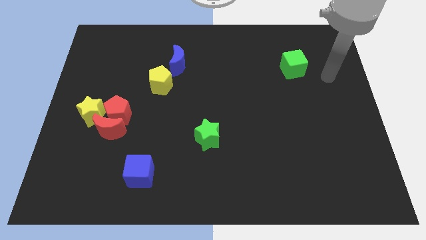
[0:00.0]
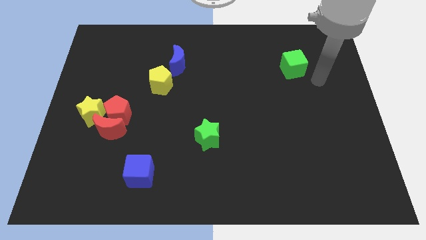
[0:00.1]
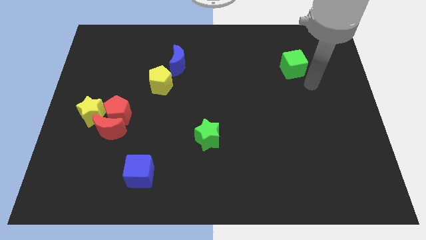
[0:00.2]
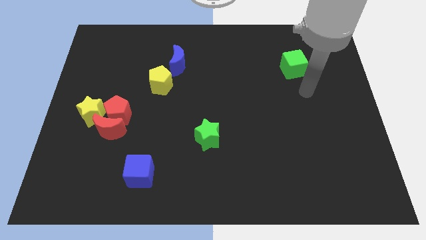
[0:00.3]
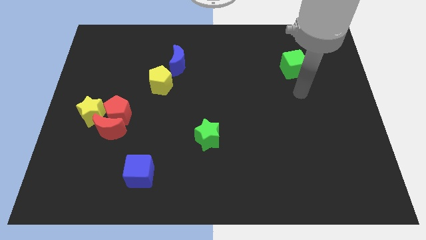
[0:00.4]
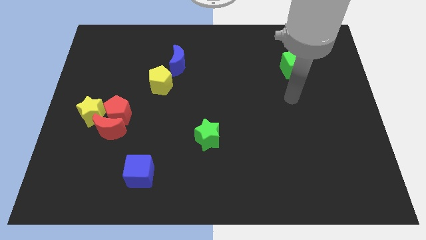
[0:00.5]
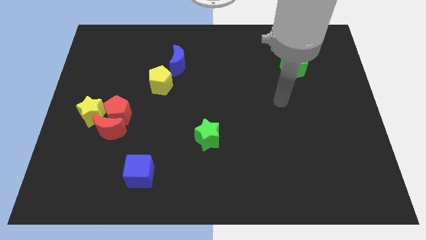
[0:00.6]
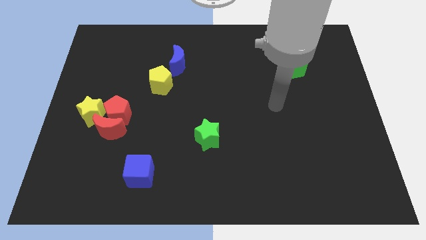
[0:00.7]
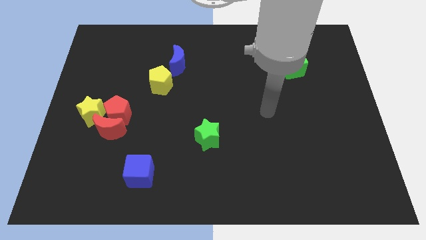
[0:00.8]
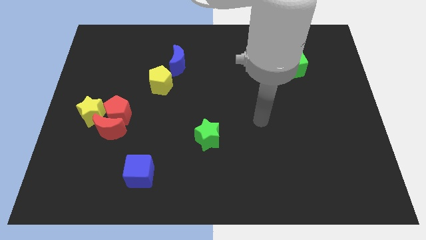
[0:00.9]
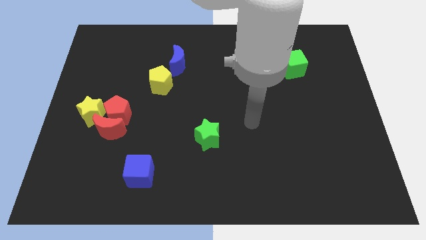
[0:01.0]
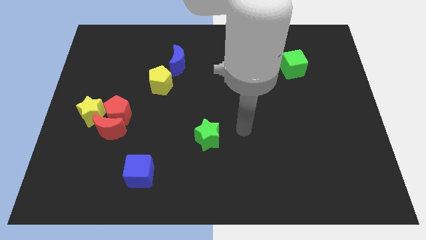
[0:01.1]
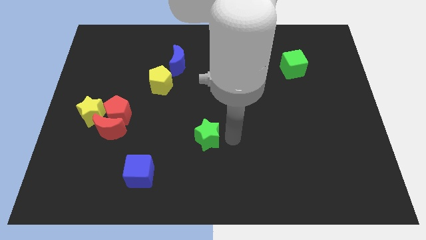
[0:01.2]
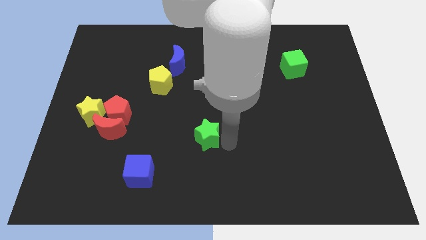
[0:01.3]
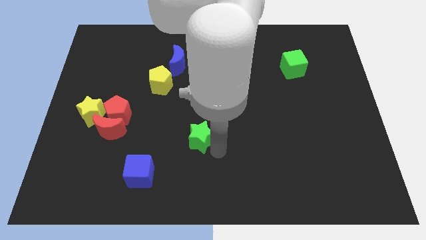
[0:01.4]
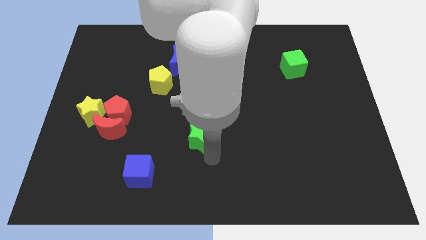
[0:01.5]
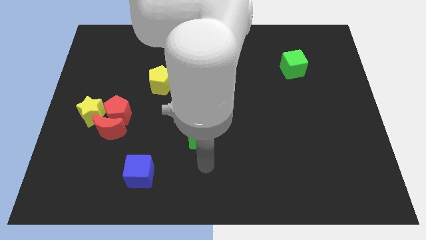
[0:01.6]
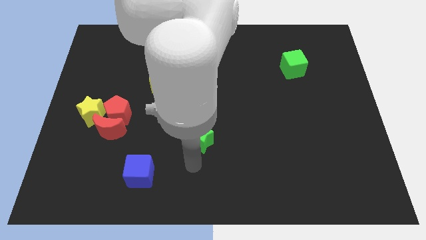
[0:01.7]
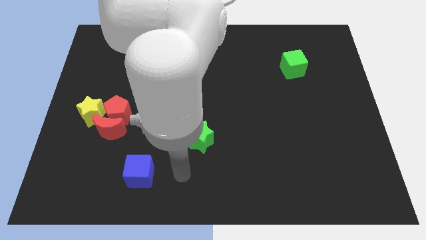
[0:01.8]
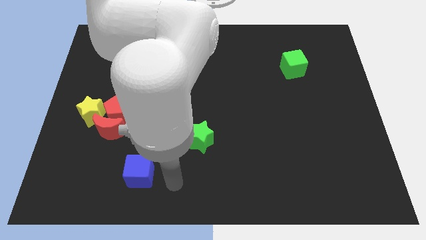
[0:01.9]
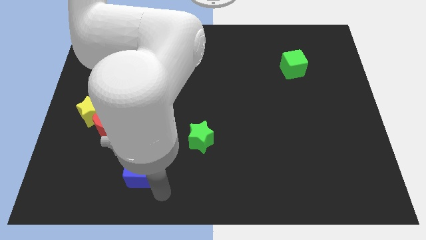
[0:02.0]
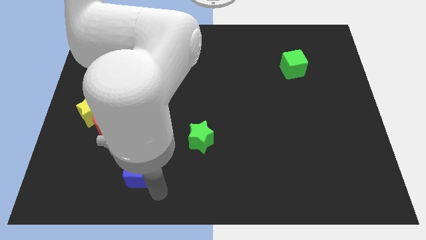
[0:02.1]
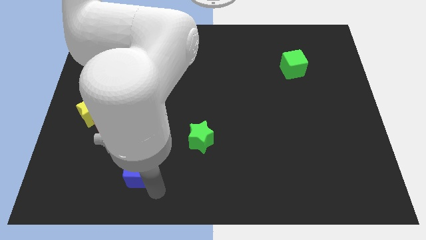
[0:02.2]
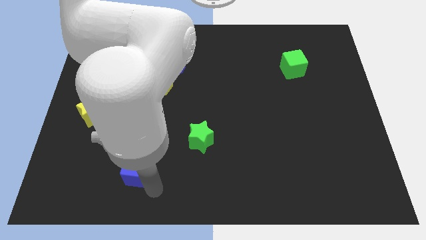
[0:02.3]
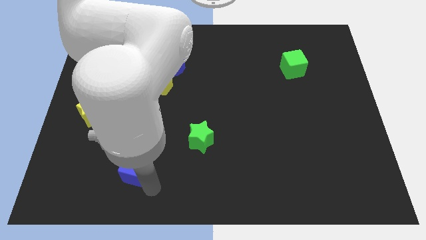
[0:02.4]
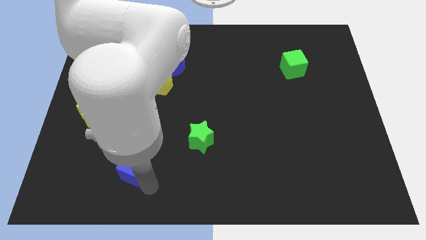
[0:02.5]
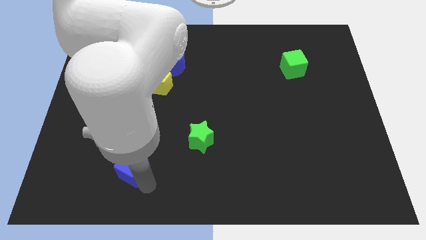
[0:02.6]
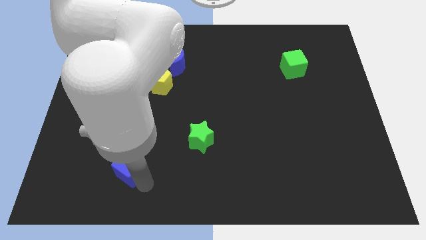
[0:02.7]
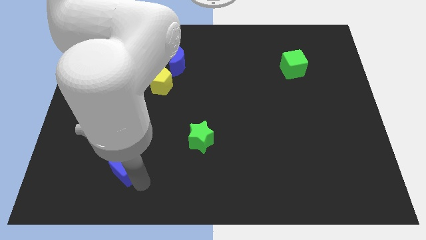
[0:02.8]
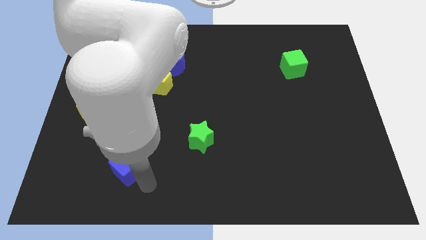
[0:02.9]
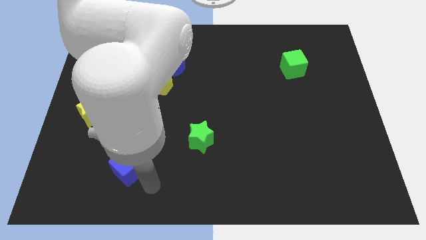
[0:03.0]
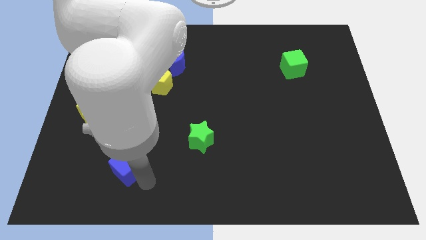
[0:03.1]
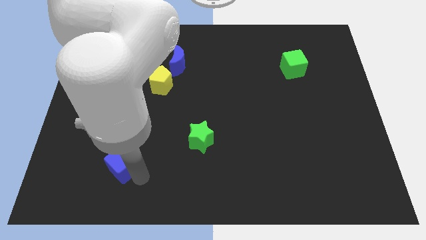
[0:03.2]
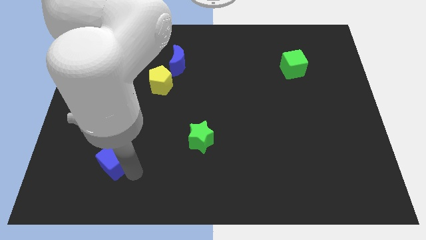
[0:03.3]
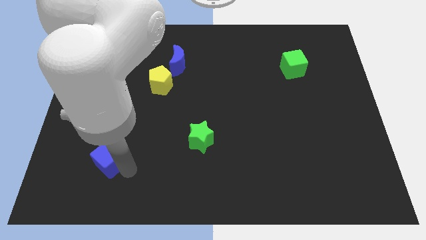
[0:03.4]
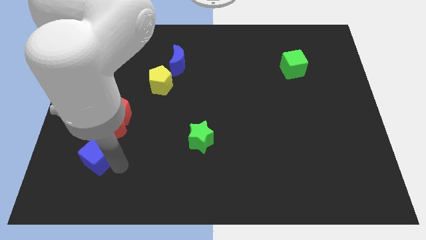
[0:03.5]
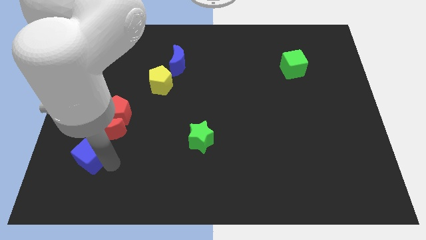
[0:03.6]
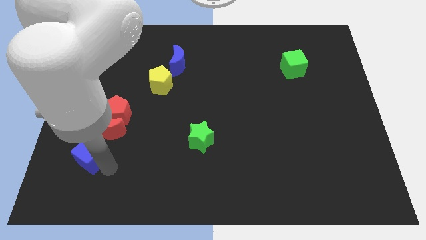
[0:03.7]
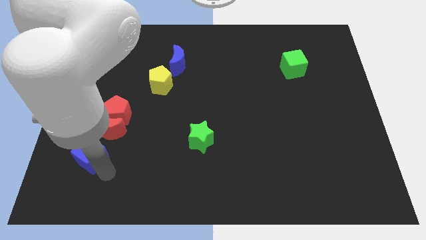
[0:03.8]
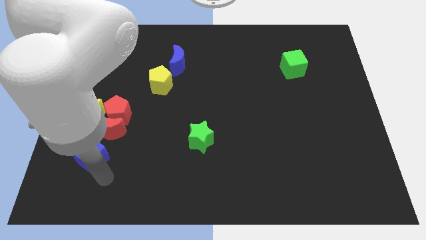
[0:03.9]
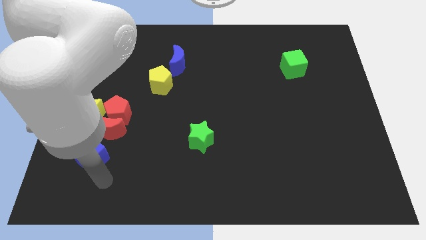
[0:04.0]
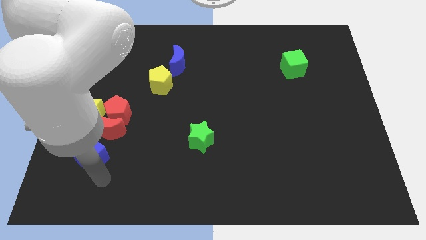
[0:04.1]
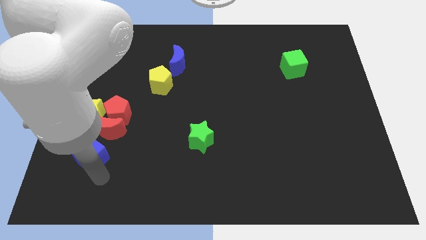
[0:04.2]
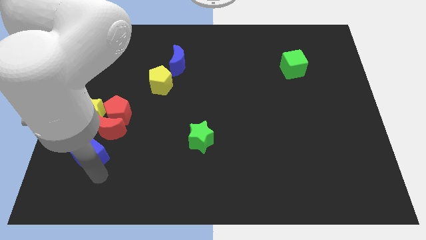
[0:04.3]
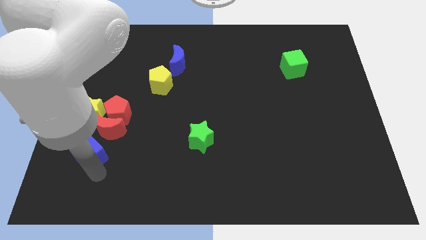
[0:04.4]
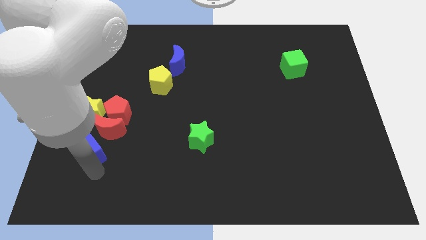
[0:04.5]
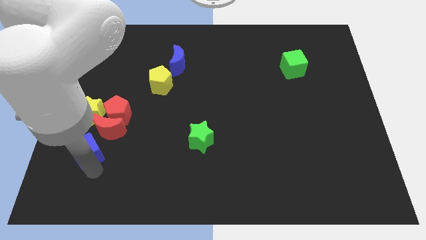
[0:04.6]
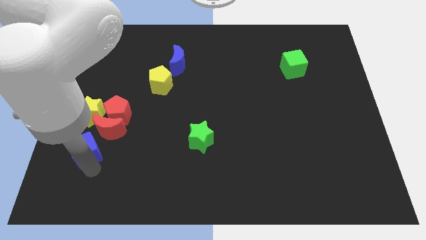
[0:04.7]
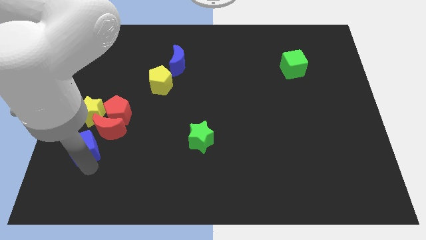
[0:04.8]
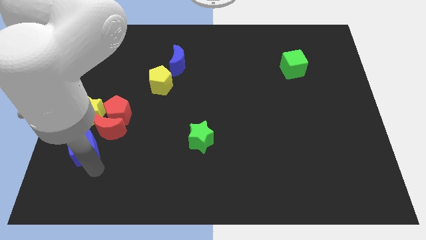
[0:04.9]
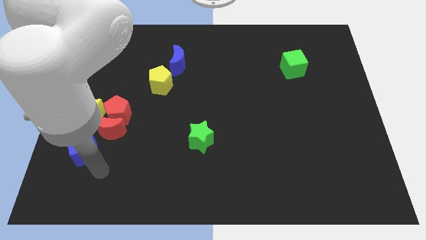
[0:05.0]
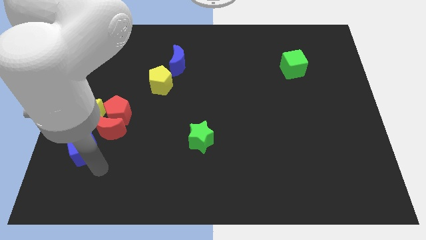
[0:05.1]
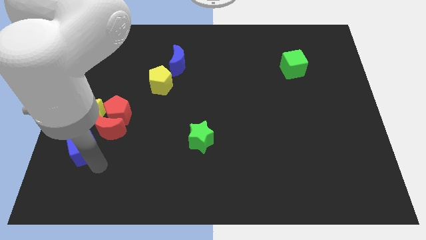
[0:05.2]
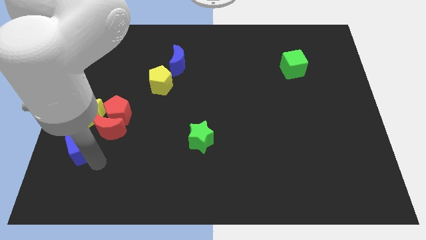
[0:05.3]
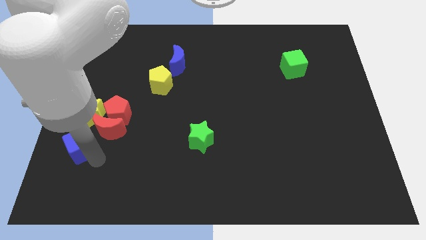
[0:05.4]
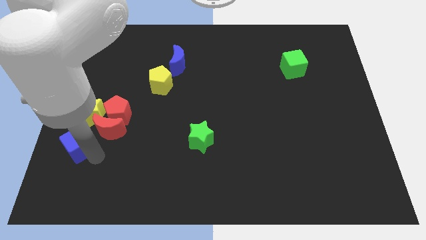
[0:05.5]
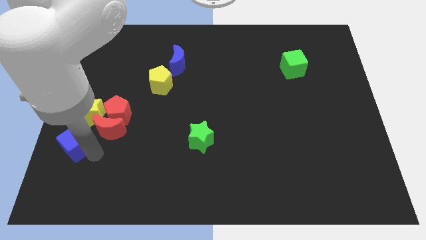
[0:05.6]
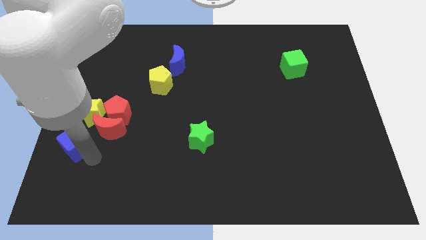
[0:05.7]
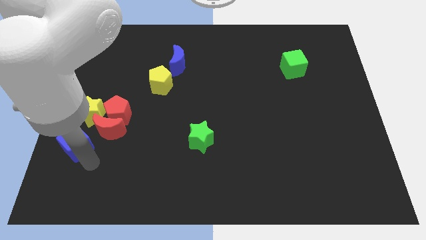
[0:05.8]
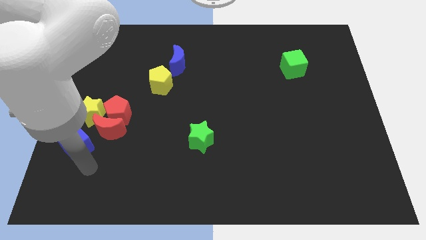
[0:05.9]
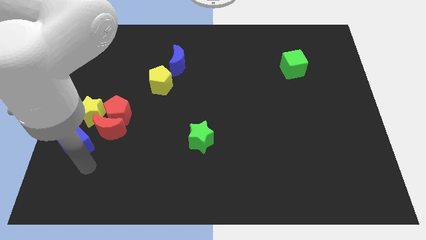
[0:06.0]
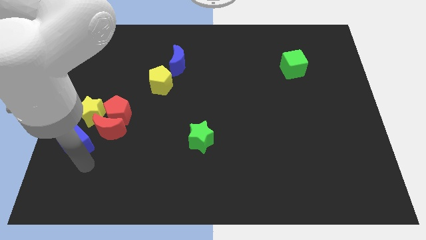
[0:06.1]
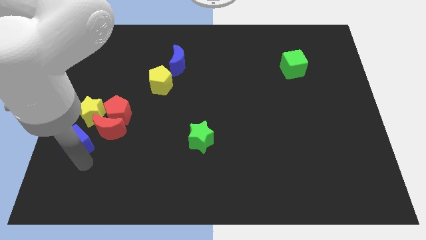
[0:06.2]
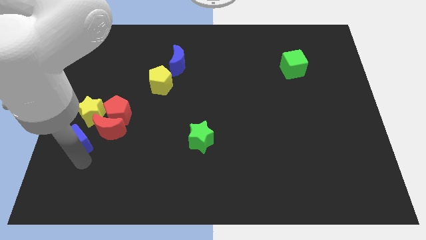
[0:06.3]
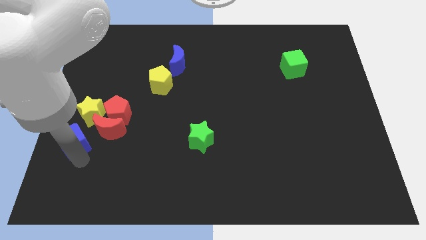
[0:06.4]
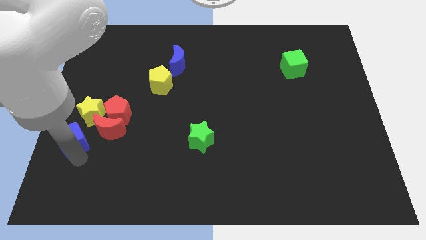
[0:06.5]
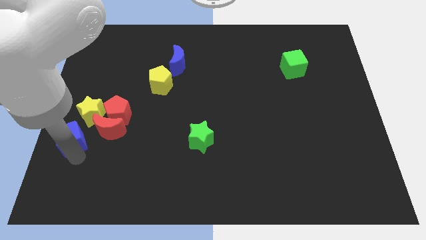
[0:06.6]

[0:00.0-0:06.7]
put the blue cube to the left side
